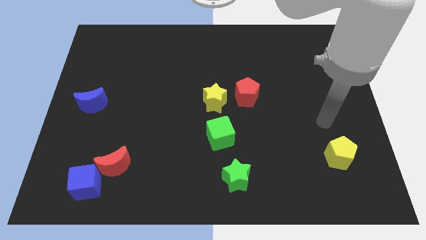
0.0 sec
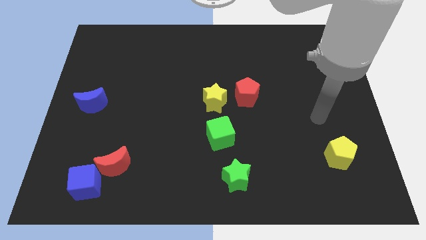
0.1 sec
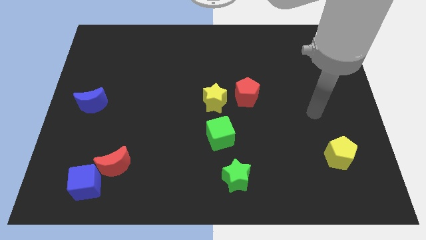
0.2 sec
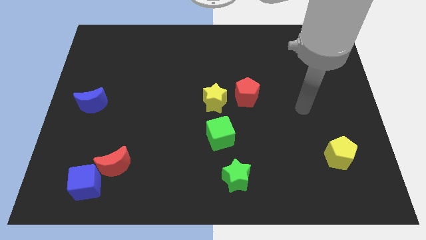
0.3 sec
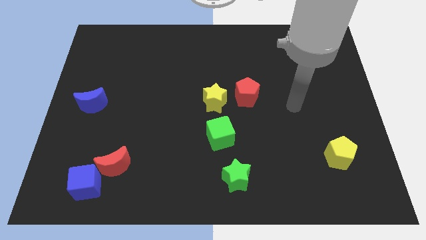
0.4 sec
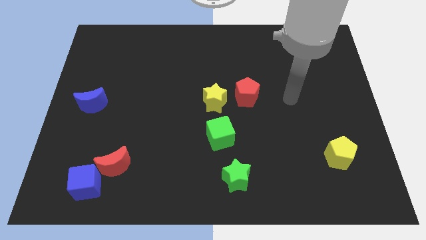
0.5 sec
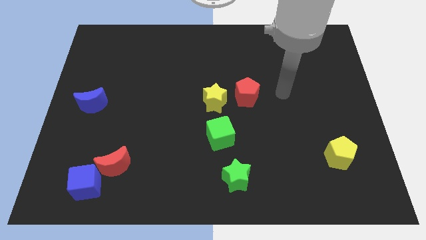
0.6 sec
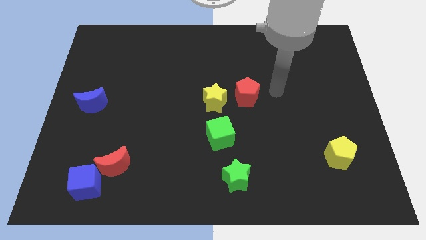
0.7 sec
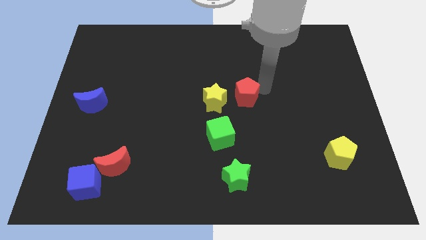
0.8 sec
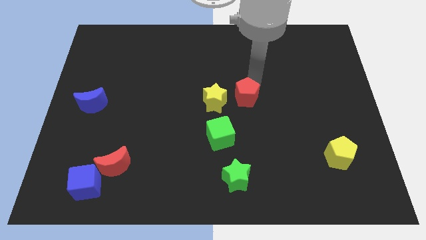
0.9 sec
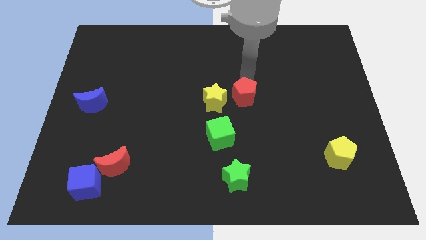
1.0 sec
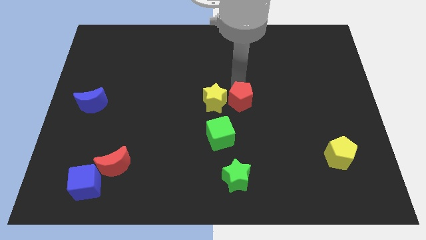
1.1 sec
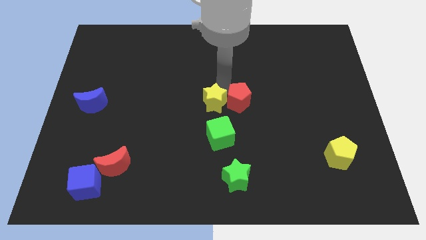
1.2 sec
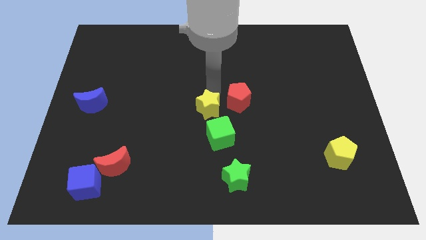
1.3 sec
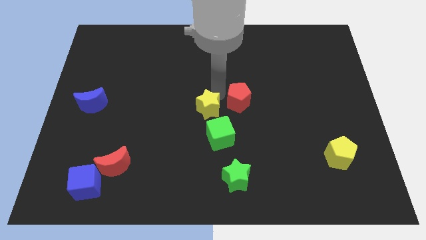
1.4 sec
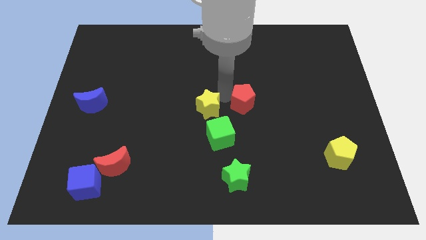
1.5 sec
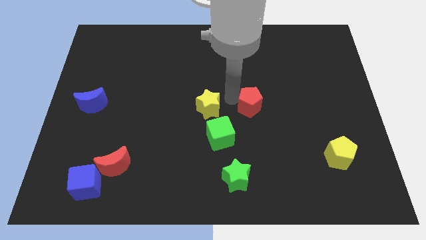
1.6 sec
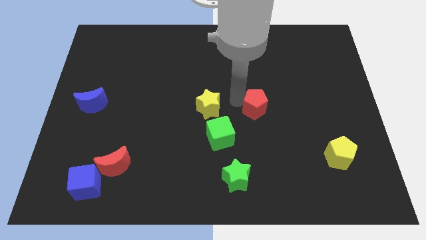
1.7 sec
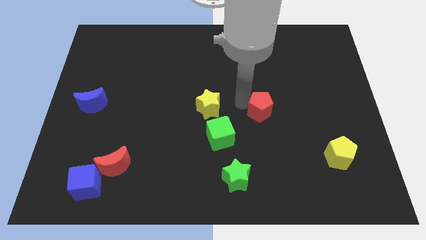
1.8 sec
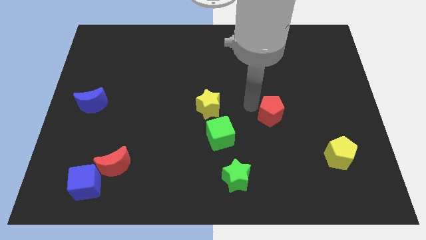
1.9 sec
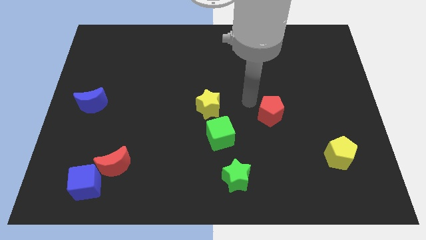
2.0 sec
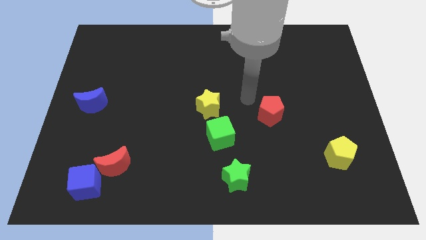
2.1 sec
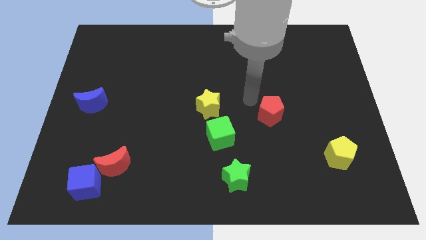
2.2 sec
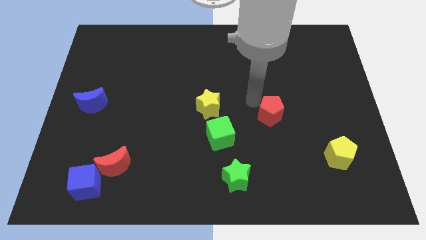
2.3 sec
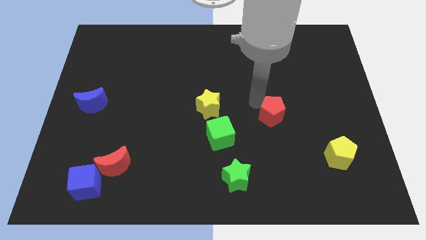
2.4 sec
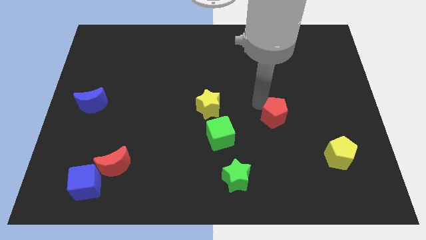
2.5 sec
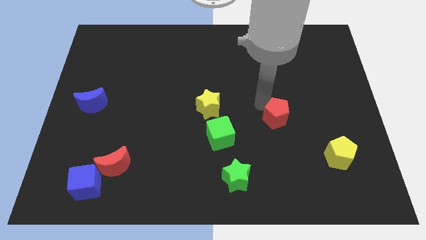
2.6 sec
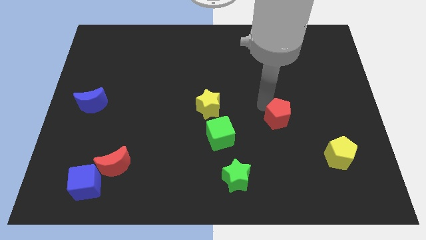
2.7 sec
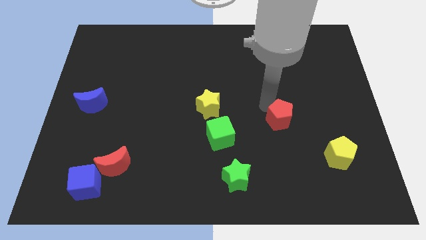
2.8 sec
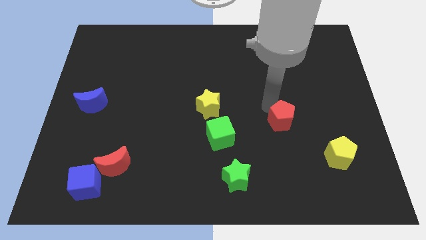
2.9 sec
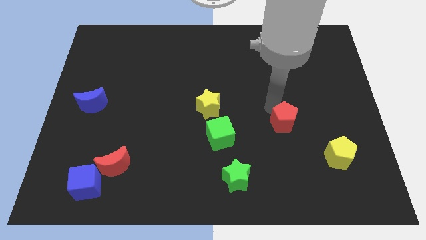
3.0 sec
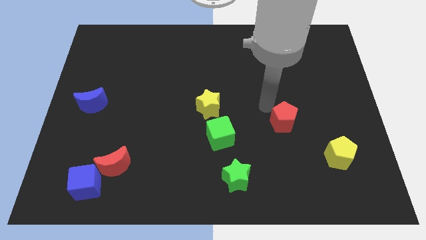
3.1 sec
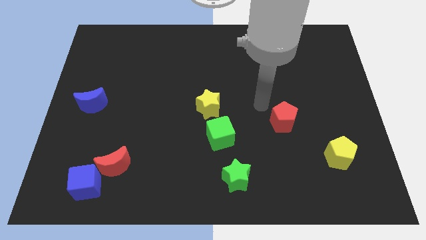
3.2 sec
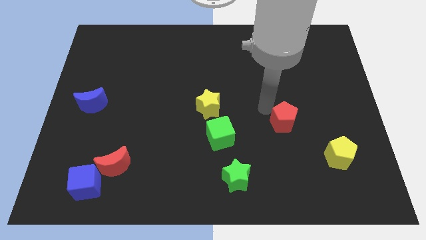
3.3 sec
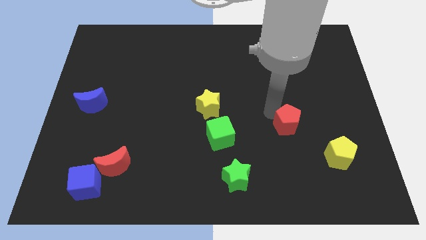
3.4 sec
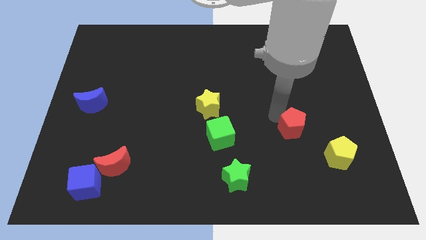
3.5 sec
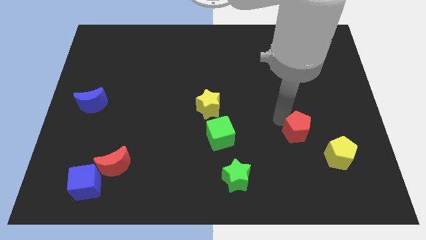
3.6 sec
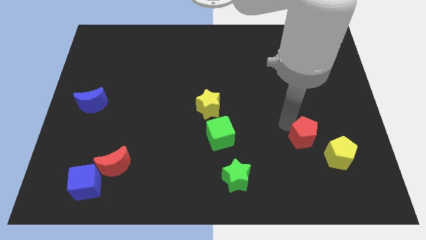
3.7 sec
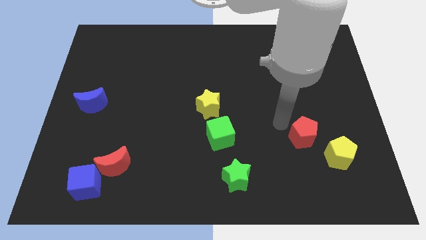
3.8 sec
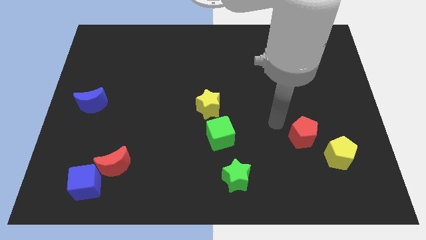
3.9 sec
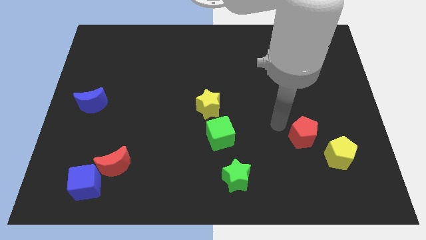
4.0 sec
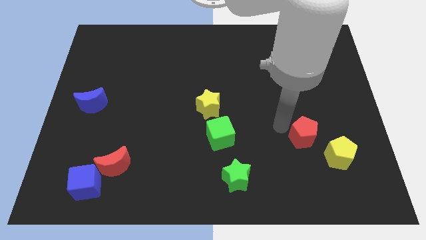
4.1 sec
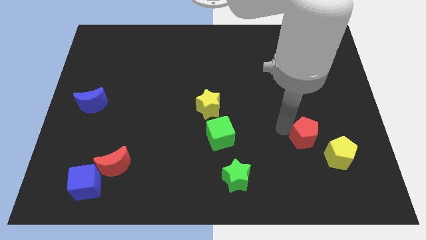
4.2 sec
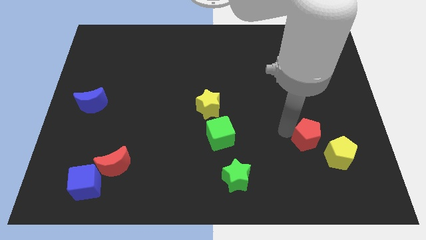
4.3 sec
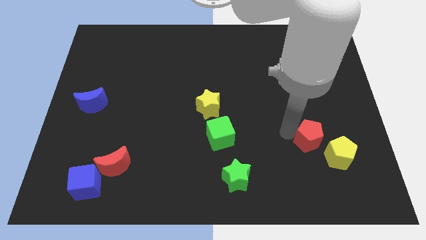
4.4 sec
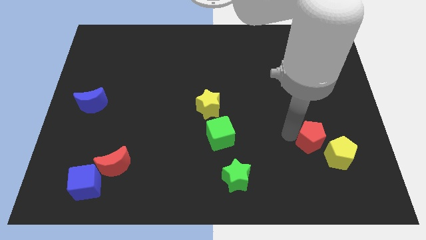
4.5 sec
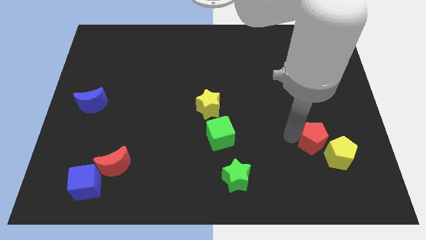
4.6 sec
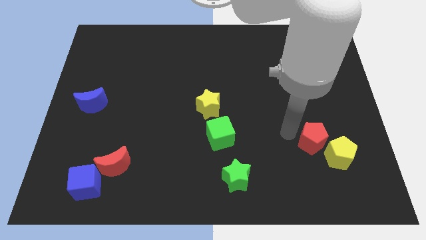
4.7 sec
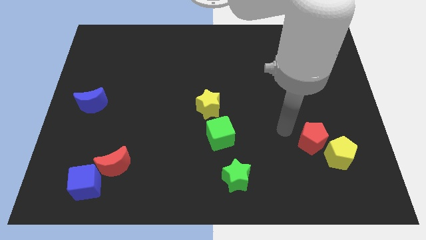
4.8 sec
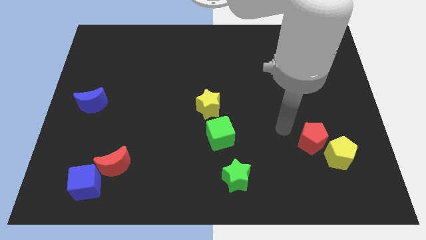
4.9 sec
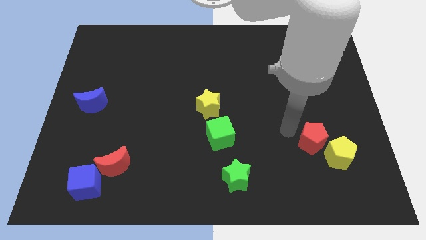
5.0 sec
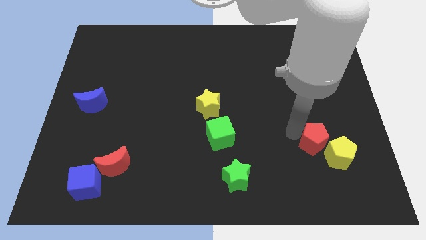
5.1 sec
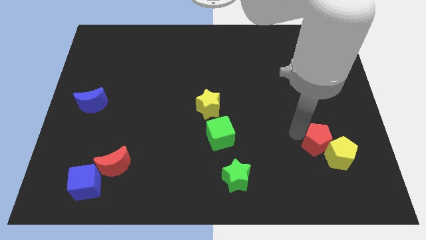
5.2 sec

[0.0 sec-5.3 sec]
move the red pentagon towards the yellow pentagon

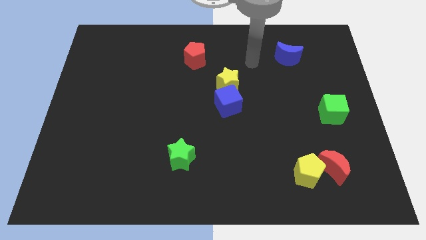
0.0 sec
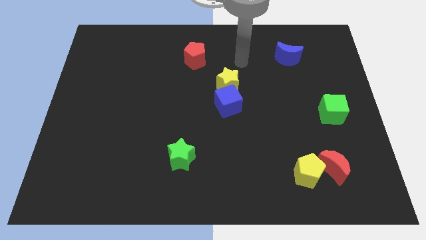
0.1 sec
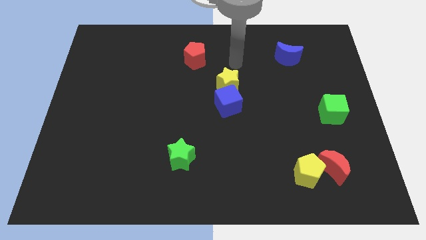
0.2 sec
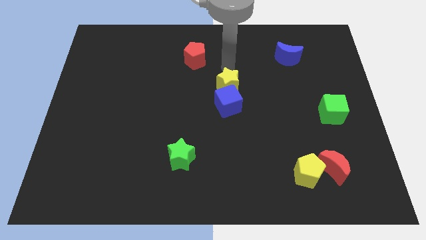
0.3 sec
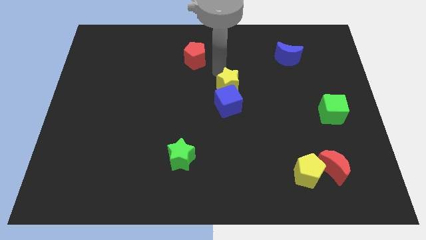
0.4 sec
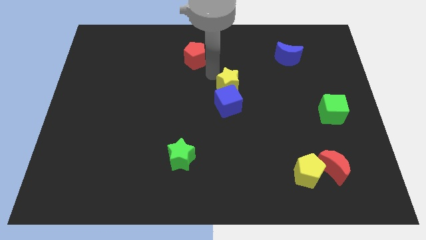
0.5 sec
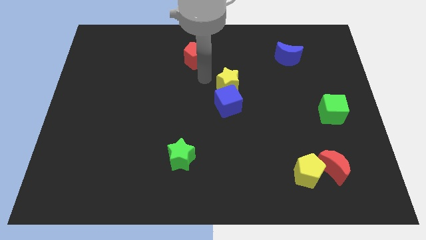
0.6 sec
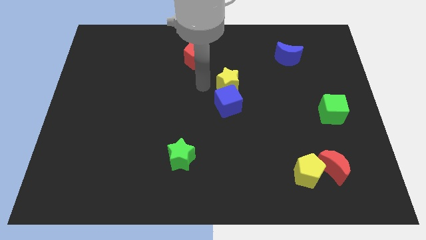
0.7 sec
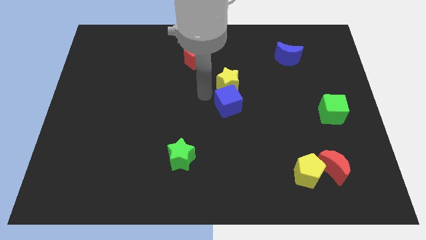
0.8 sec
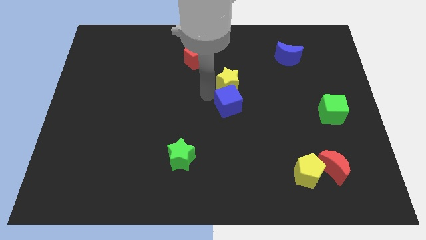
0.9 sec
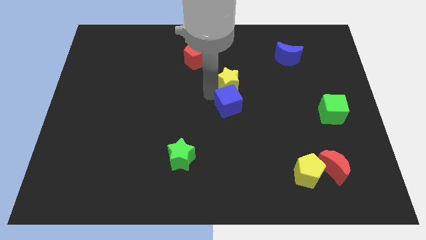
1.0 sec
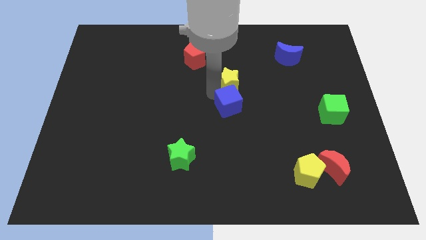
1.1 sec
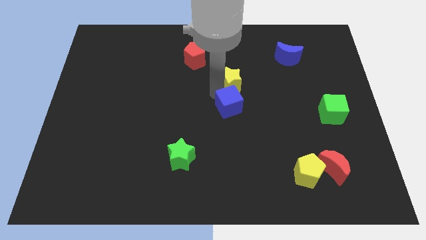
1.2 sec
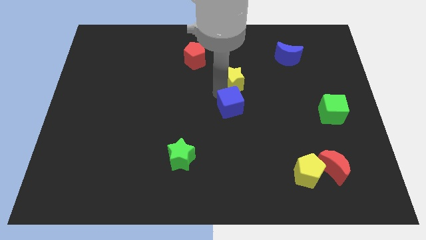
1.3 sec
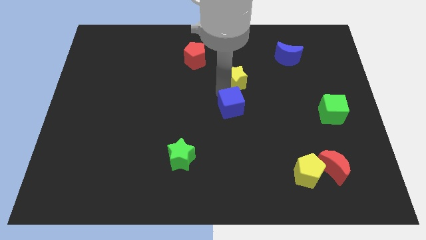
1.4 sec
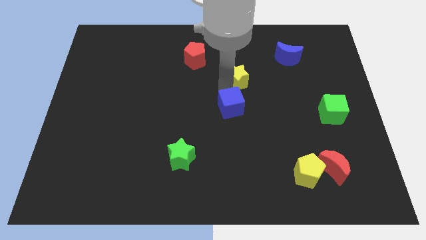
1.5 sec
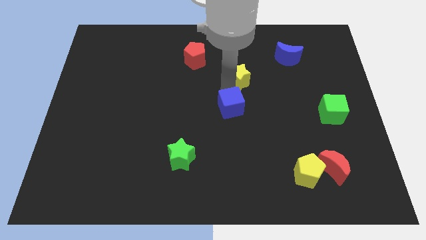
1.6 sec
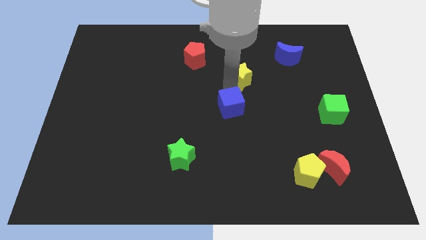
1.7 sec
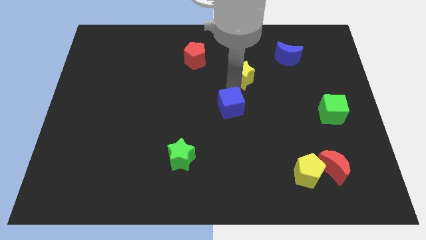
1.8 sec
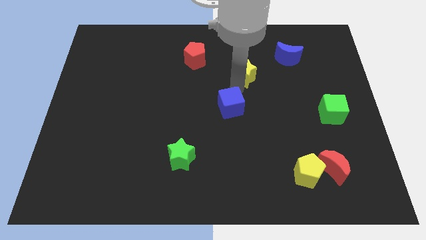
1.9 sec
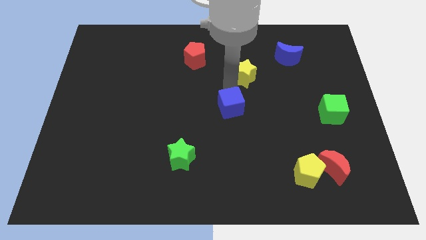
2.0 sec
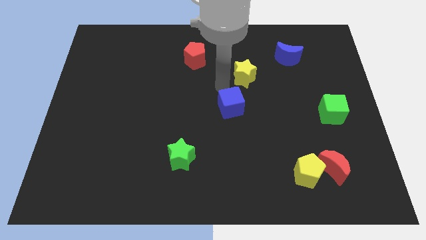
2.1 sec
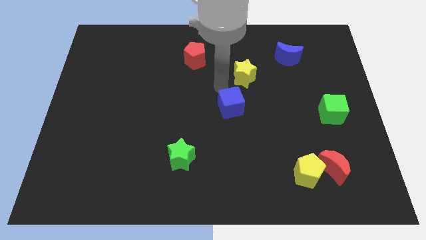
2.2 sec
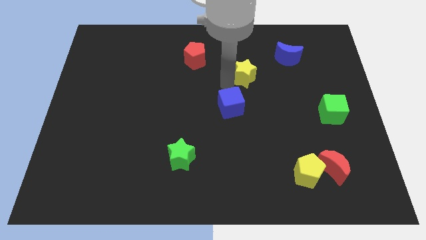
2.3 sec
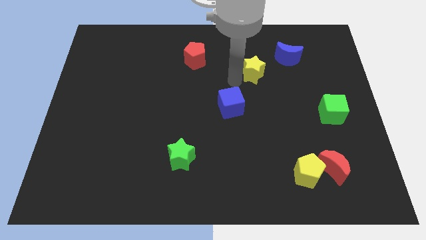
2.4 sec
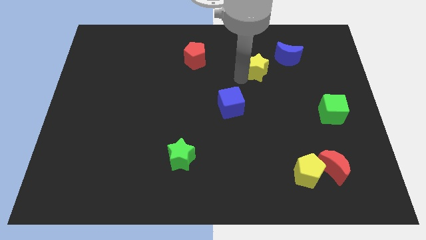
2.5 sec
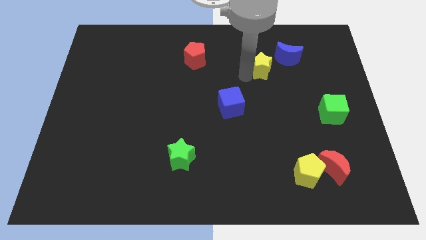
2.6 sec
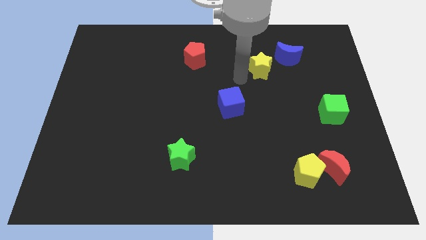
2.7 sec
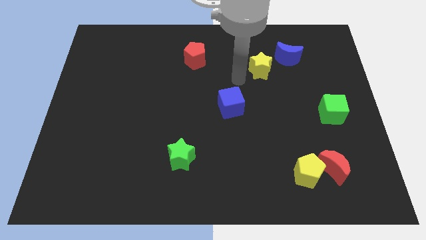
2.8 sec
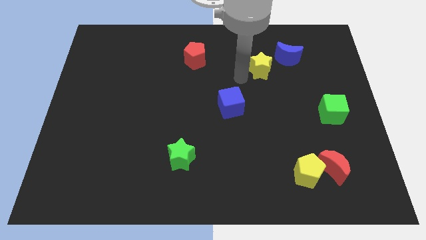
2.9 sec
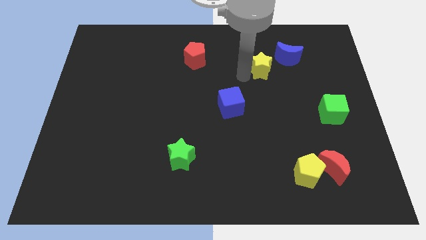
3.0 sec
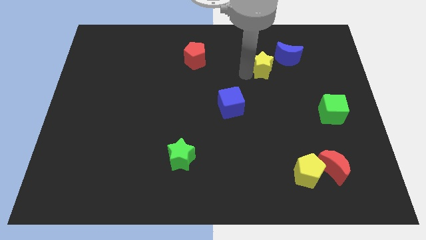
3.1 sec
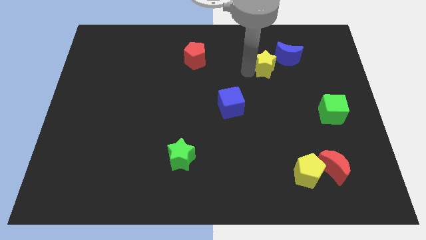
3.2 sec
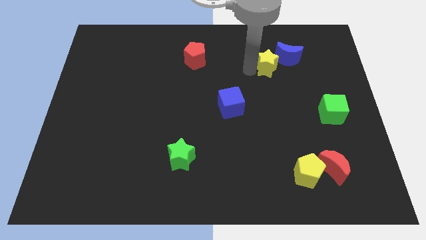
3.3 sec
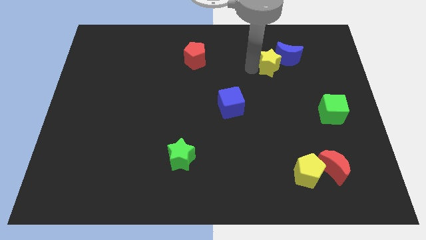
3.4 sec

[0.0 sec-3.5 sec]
put the yellow star close to the blue moon
